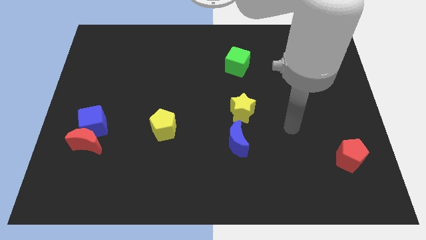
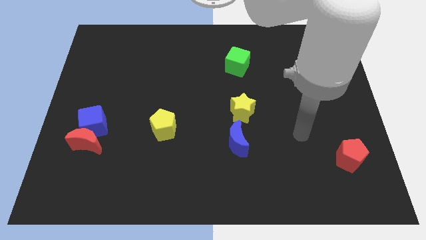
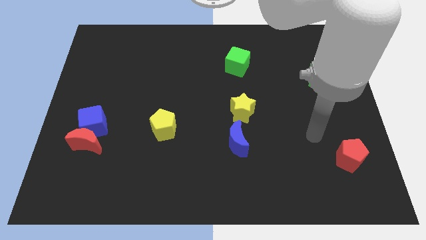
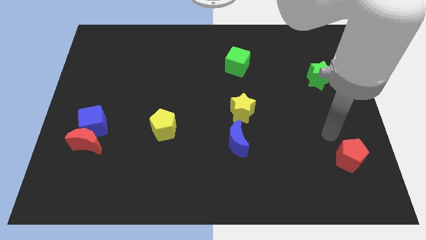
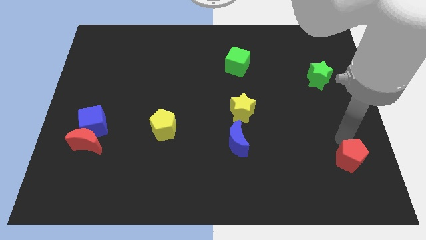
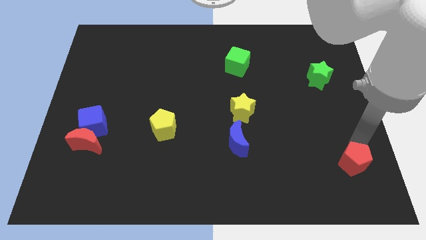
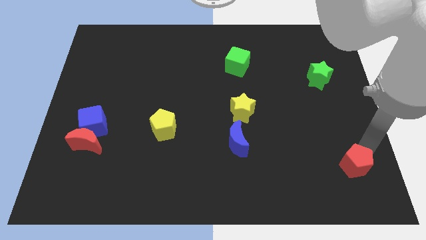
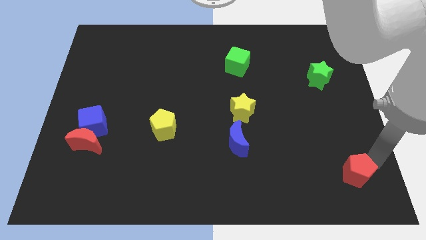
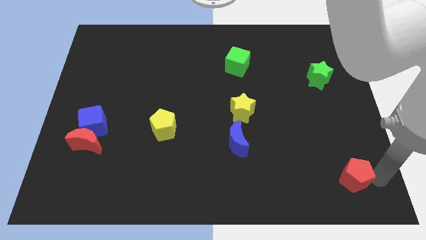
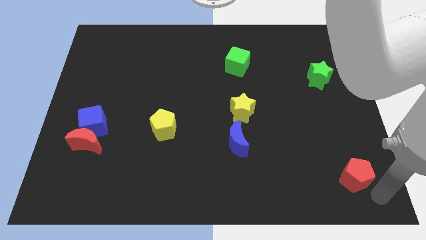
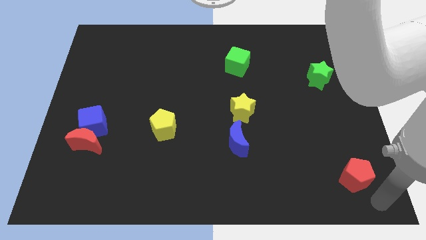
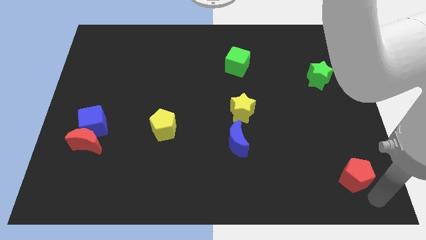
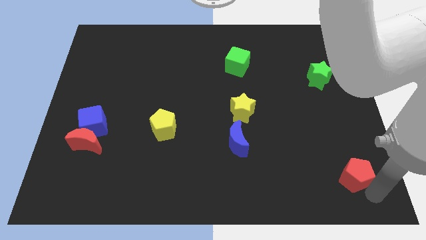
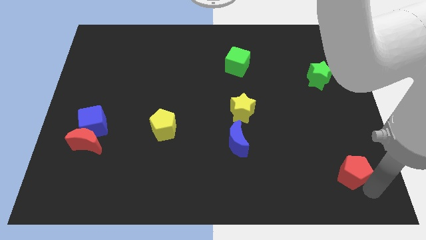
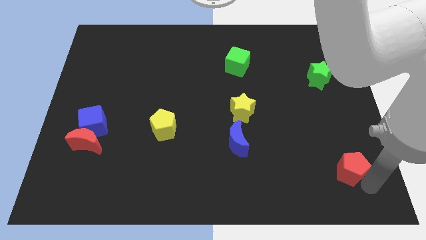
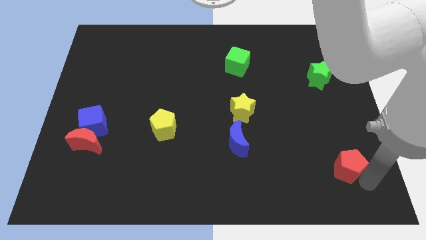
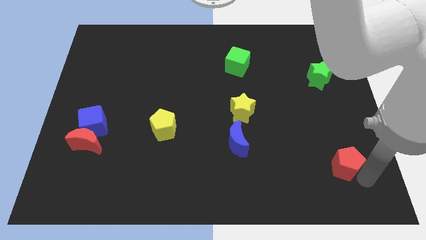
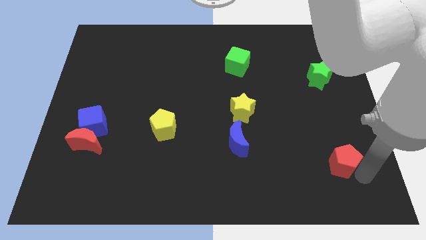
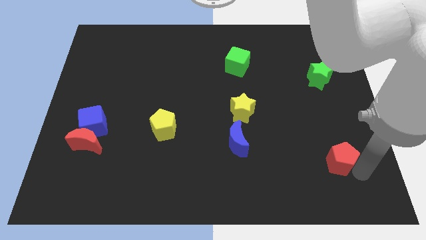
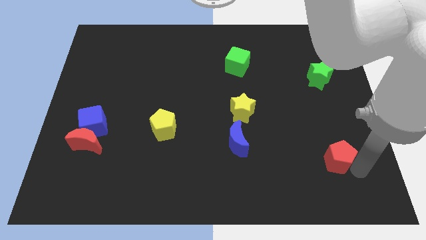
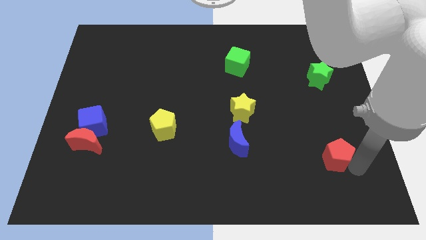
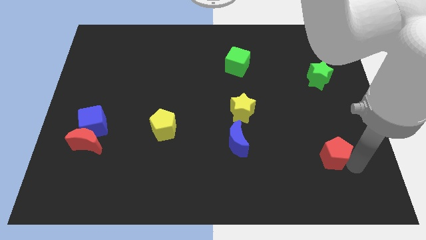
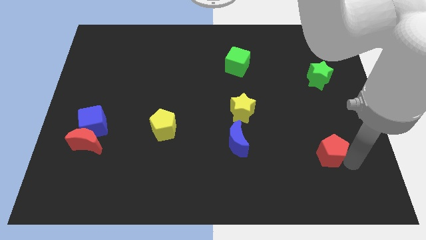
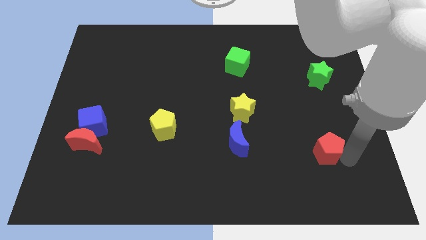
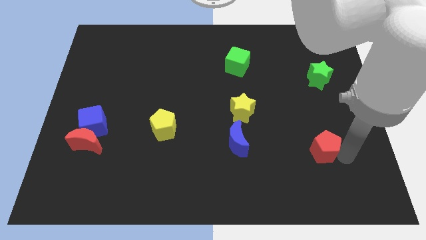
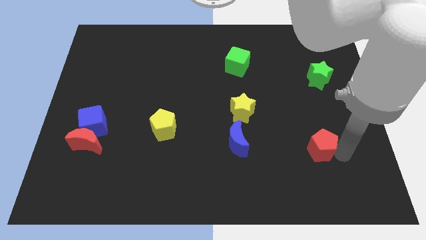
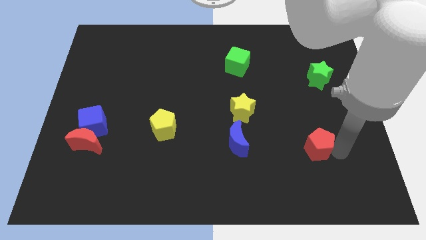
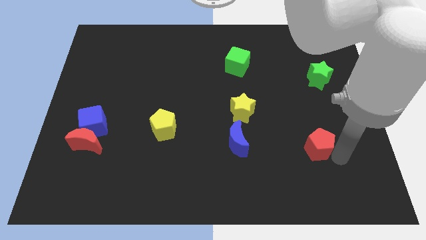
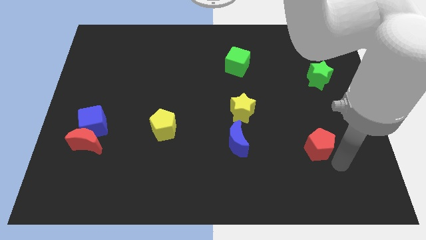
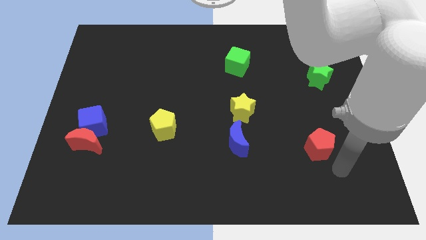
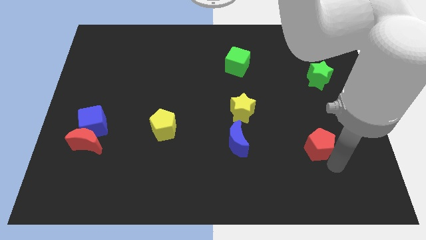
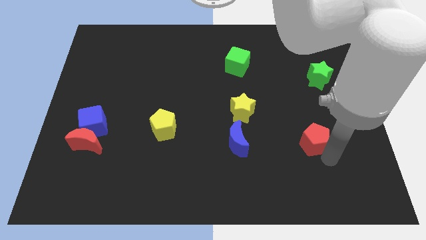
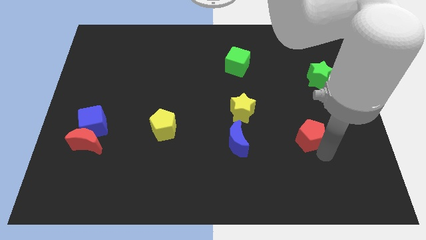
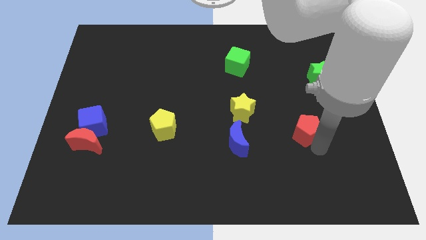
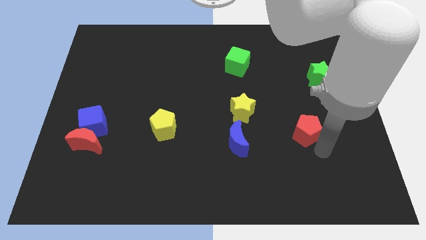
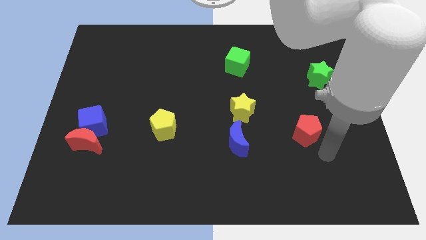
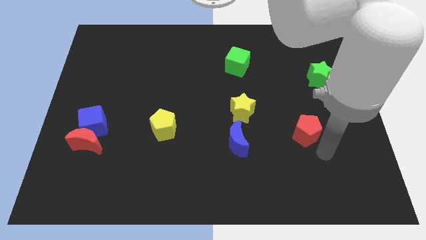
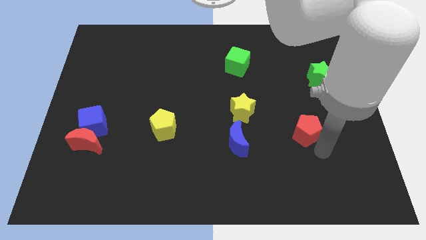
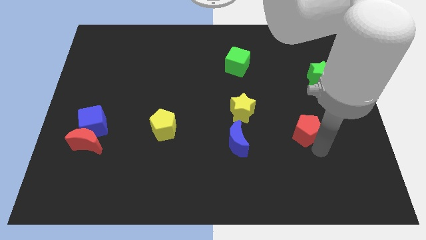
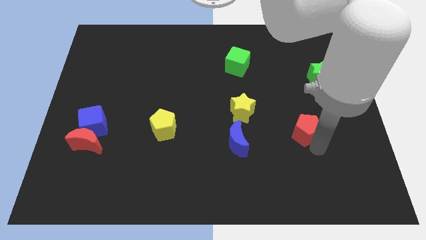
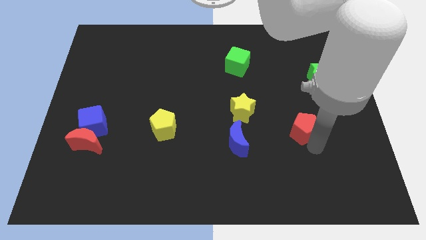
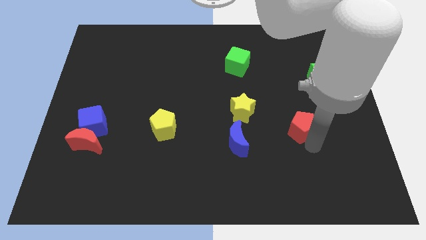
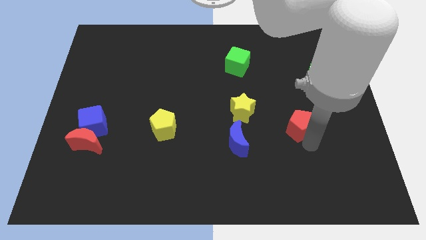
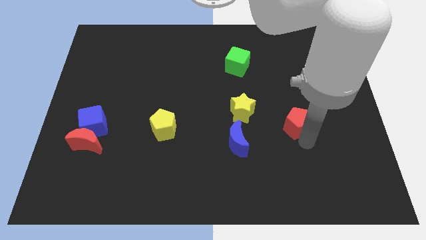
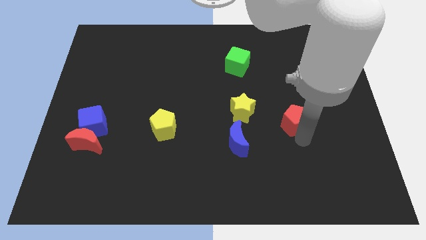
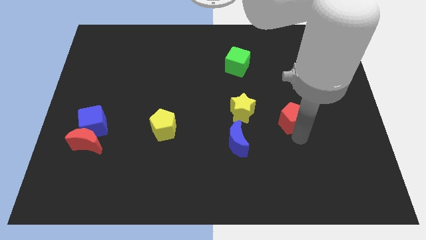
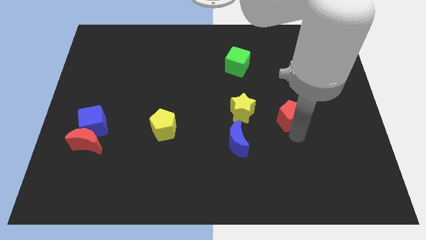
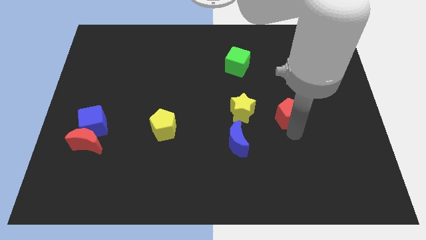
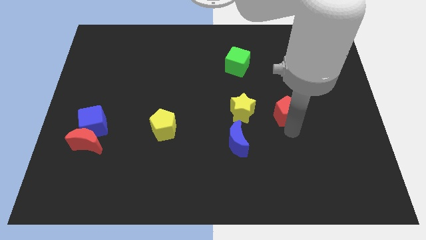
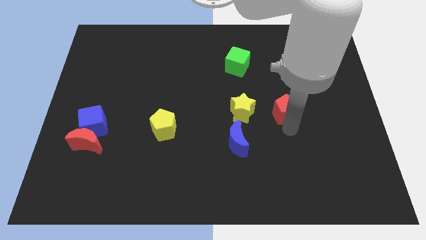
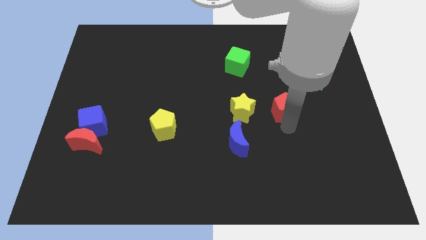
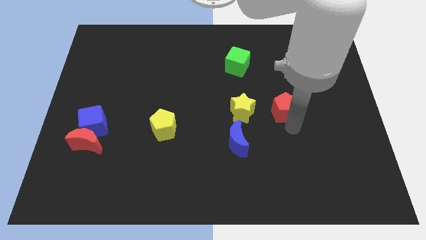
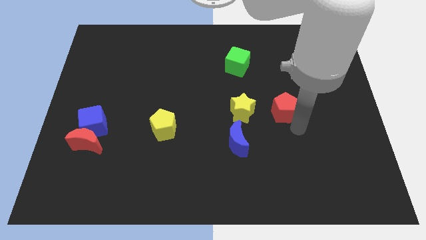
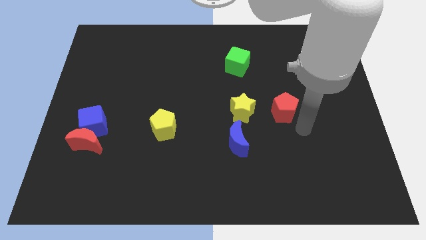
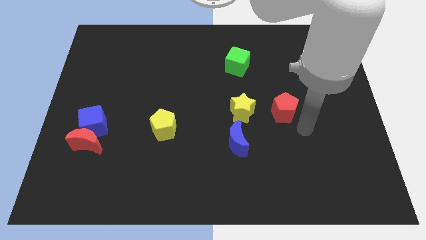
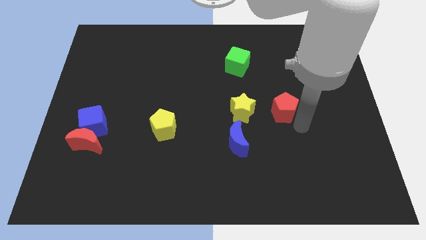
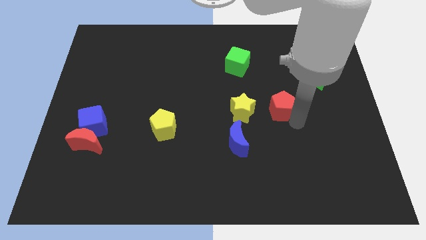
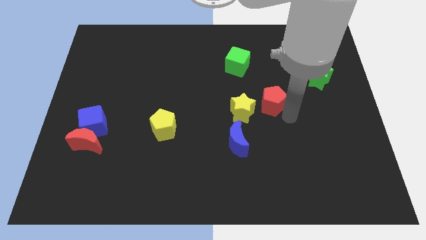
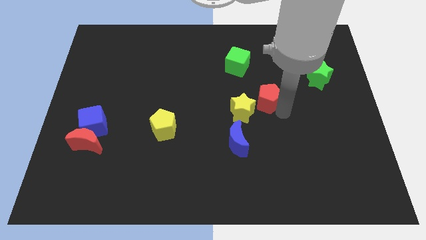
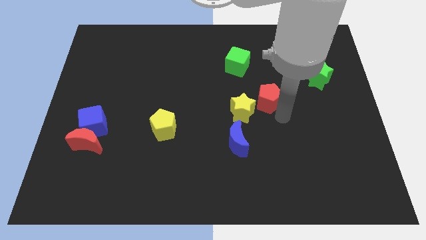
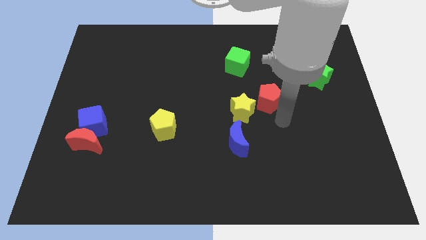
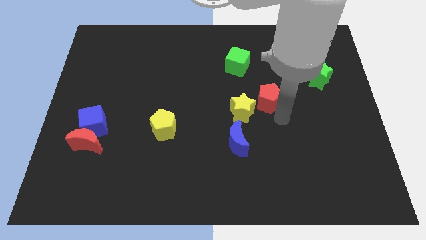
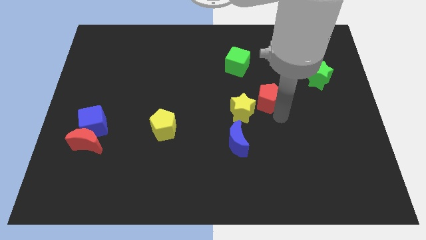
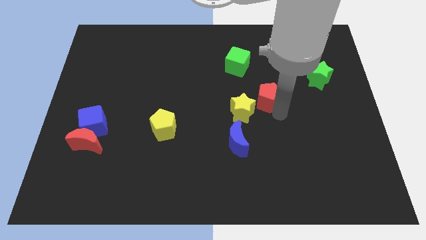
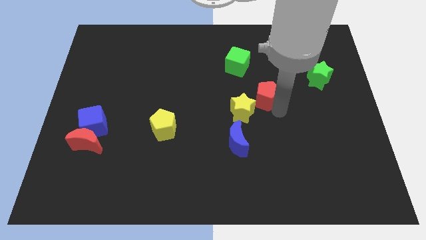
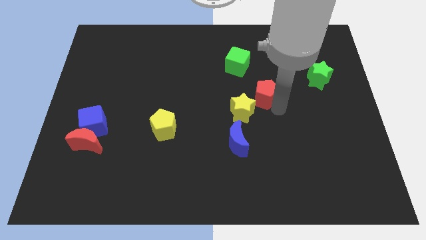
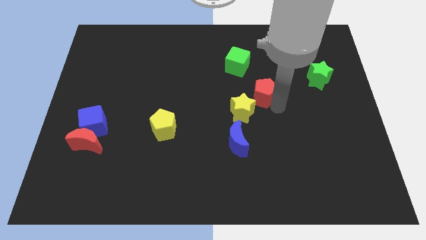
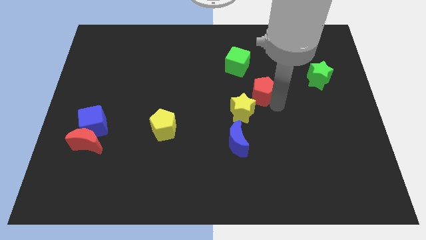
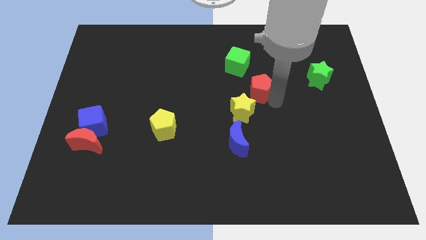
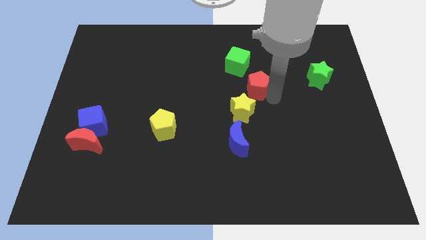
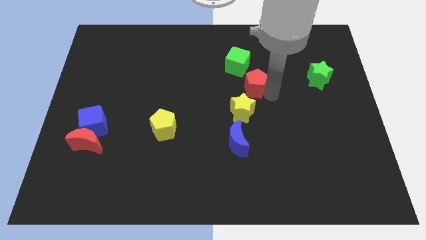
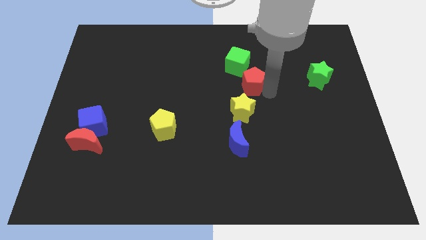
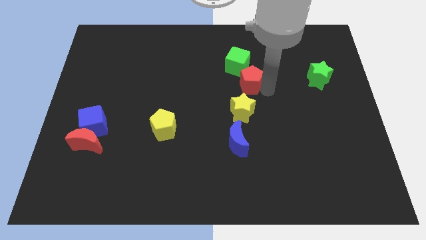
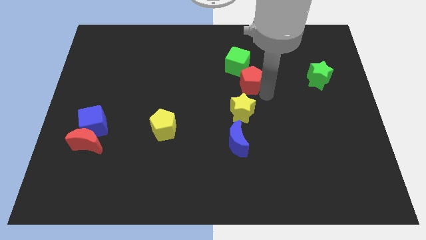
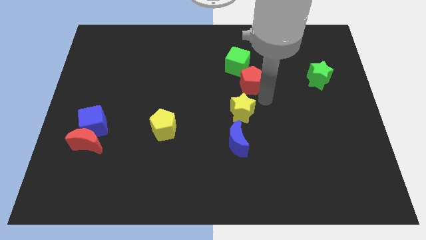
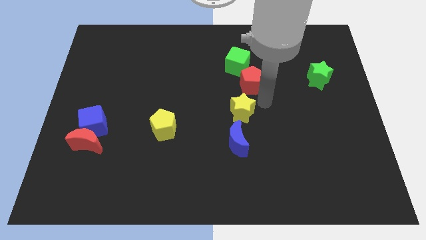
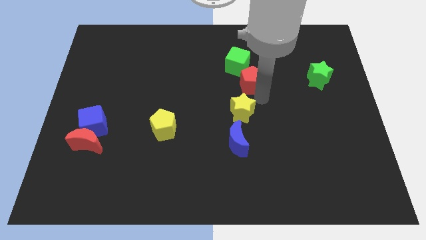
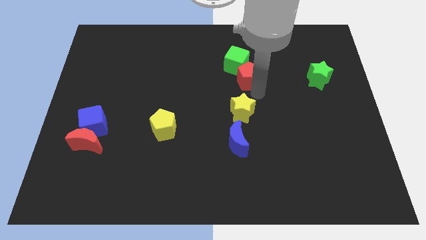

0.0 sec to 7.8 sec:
slide the red pentagon towards the green cube
